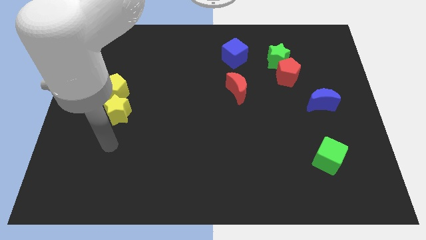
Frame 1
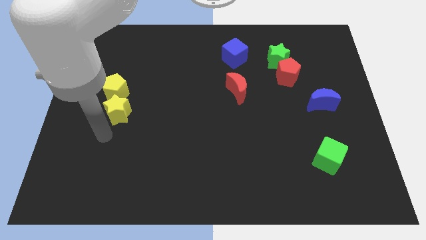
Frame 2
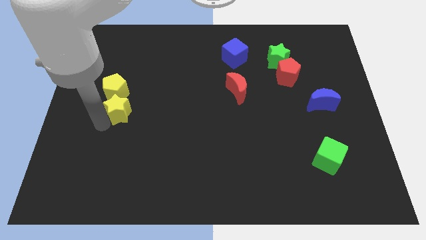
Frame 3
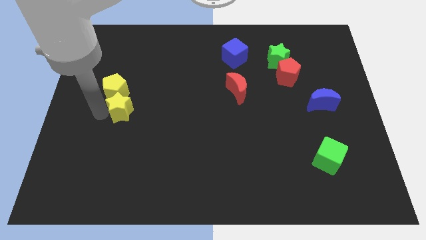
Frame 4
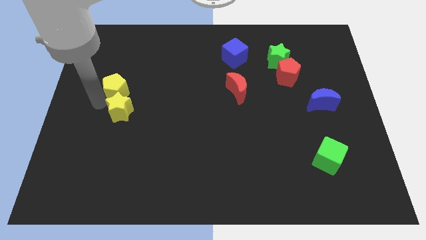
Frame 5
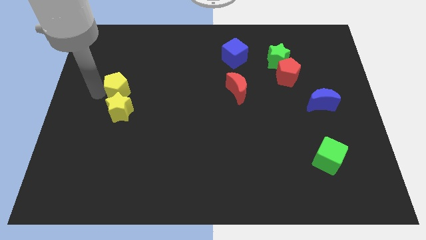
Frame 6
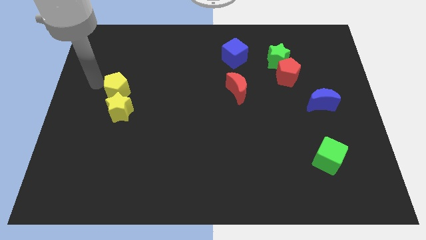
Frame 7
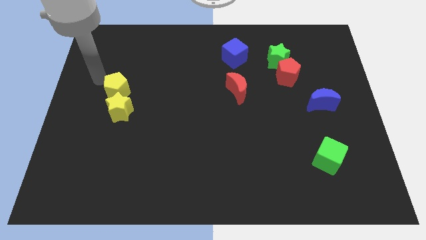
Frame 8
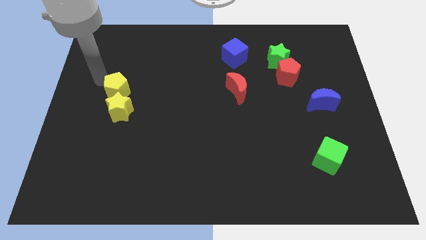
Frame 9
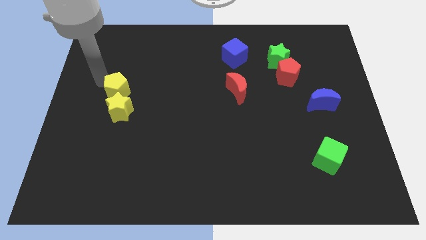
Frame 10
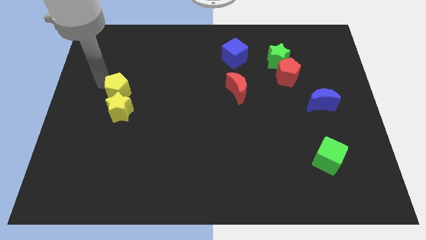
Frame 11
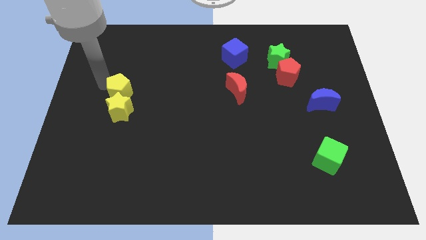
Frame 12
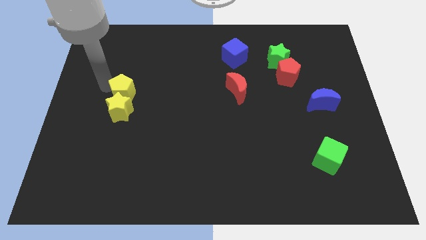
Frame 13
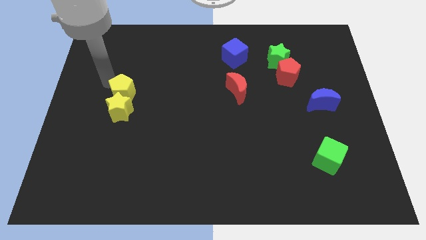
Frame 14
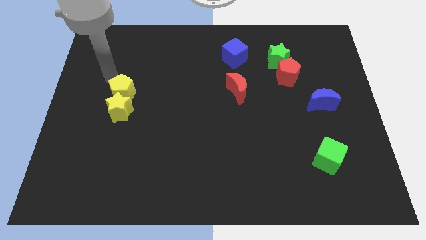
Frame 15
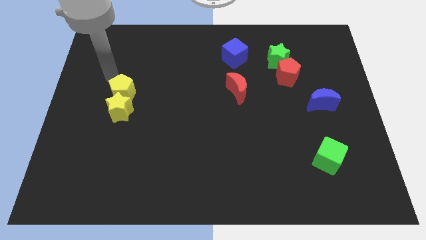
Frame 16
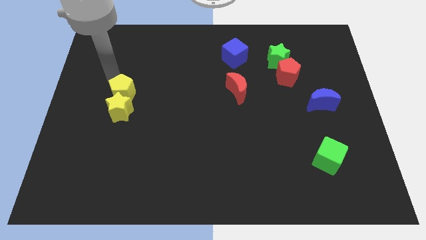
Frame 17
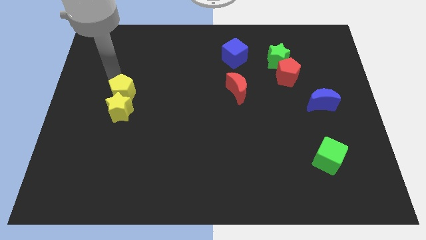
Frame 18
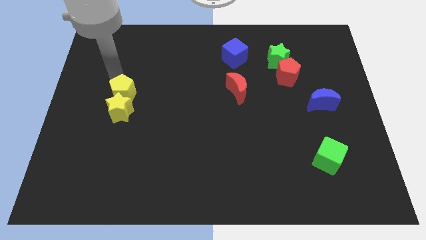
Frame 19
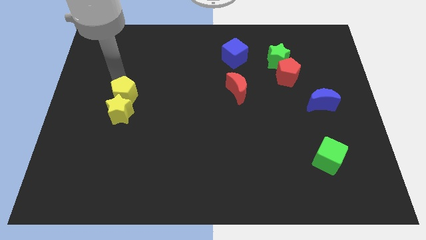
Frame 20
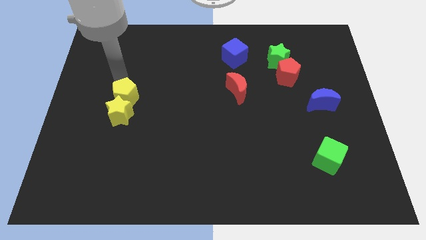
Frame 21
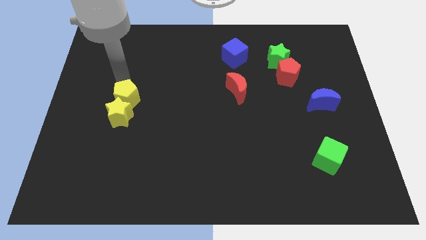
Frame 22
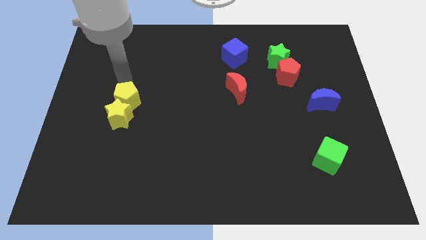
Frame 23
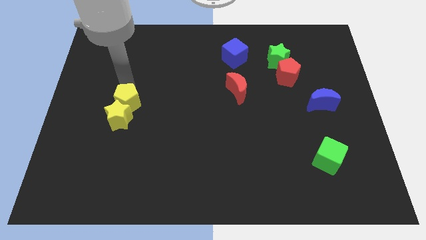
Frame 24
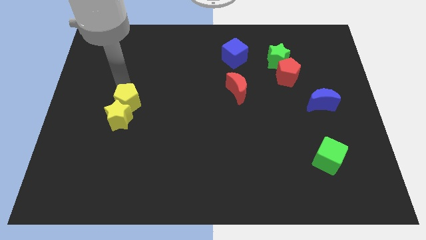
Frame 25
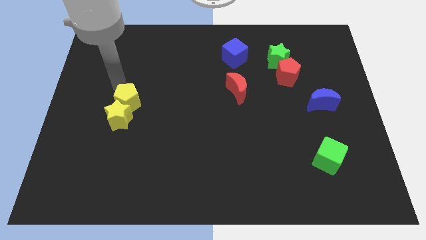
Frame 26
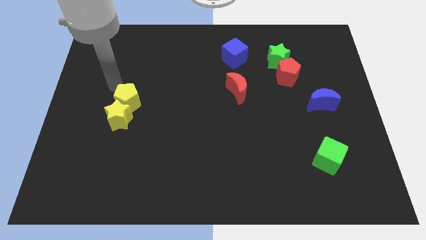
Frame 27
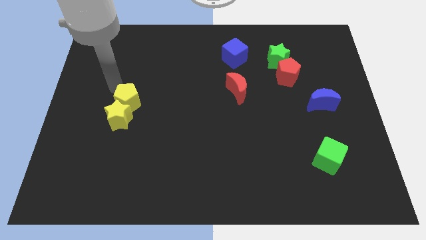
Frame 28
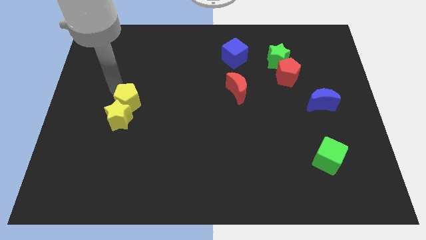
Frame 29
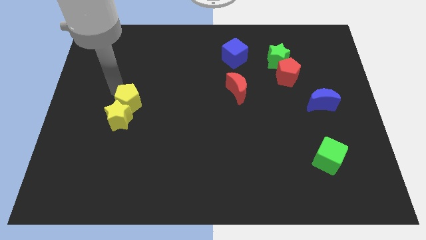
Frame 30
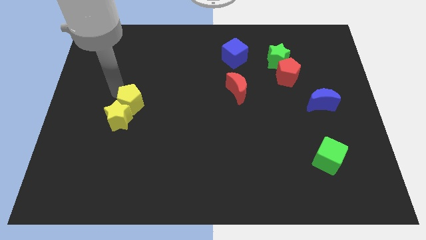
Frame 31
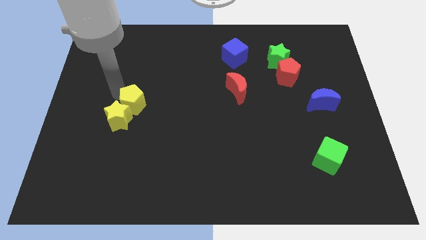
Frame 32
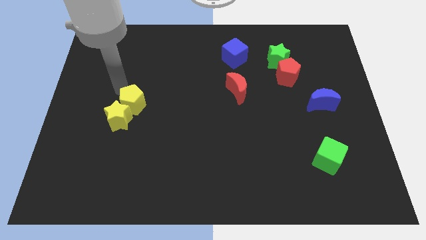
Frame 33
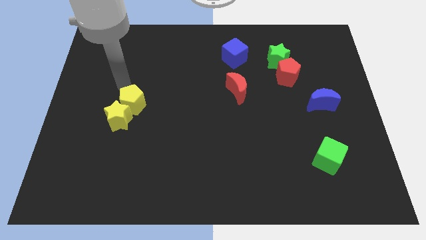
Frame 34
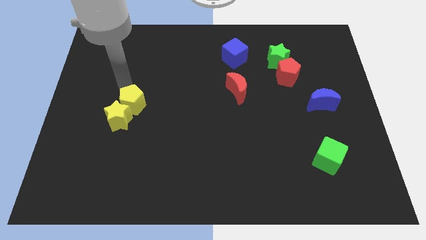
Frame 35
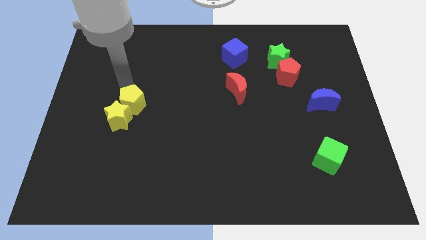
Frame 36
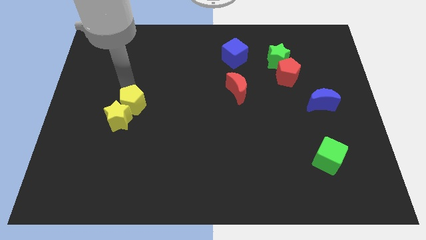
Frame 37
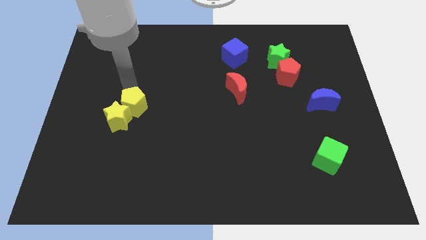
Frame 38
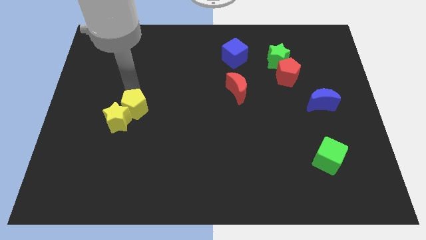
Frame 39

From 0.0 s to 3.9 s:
slightly push the yellow pentagon down and then to the right

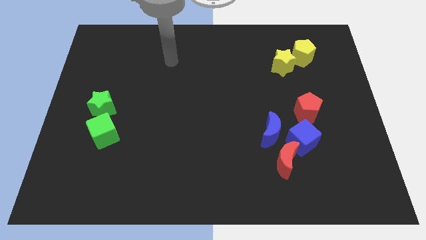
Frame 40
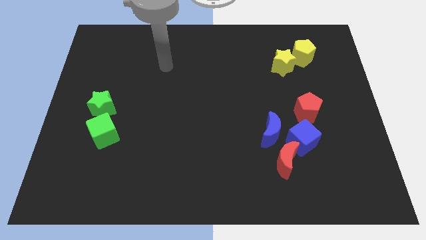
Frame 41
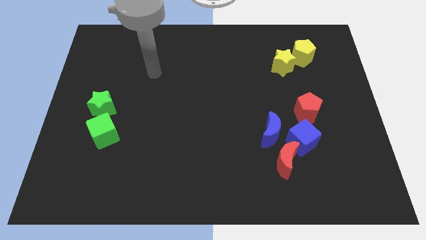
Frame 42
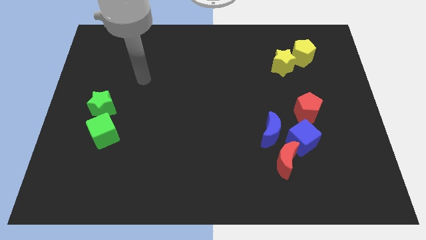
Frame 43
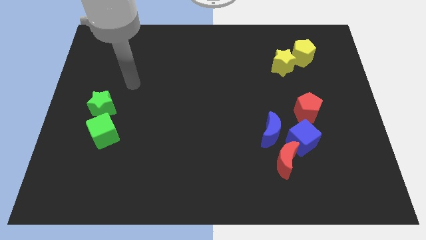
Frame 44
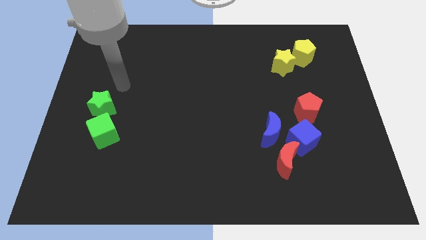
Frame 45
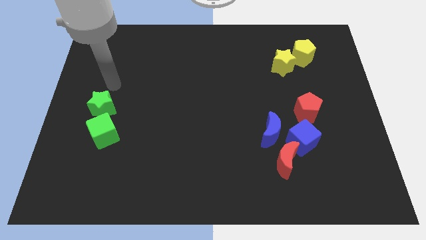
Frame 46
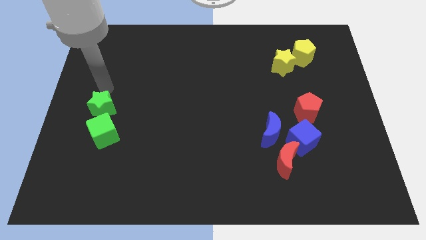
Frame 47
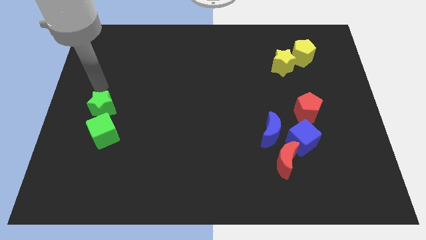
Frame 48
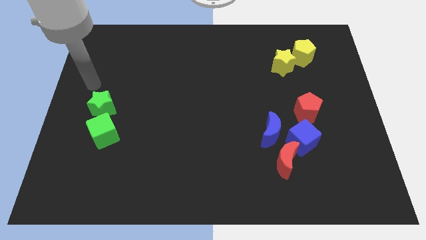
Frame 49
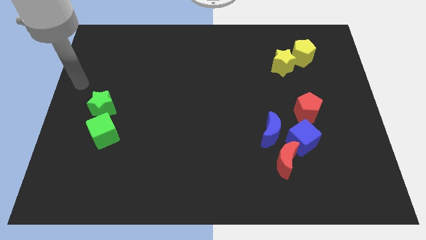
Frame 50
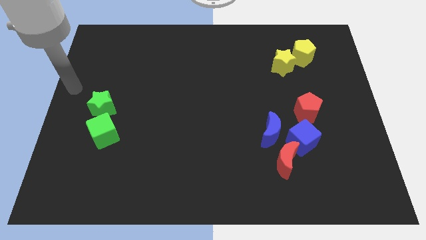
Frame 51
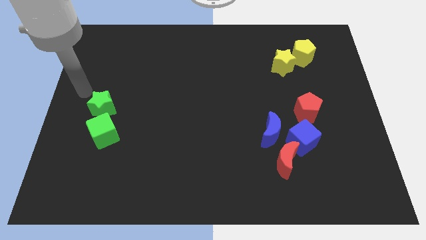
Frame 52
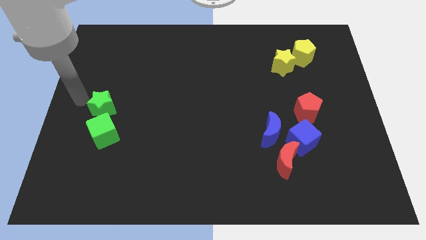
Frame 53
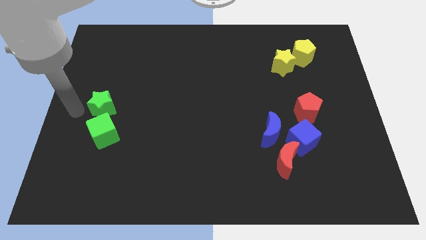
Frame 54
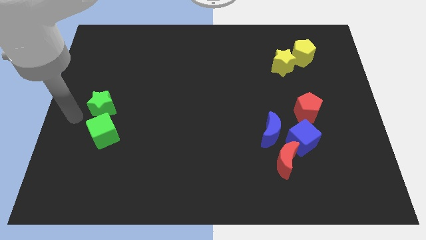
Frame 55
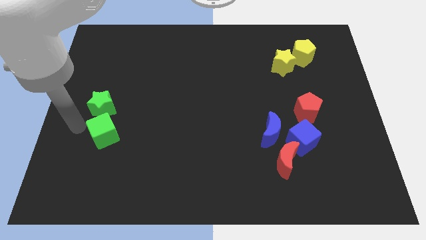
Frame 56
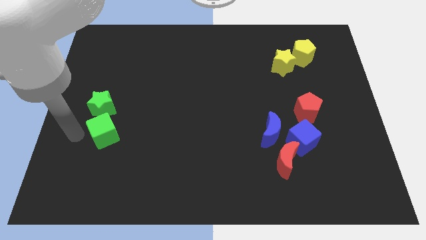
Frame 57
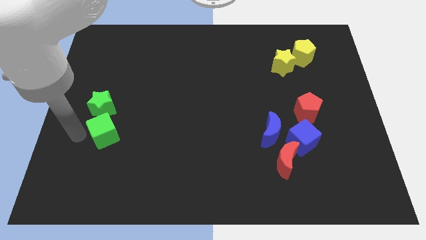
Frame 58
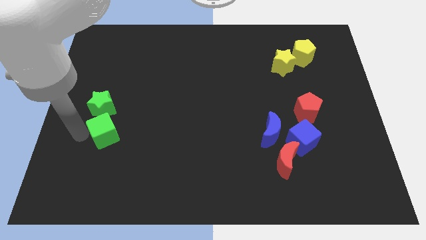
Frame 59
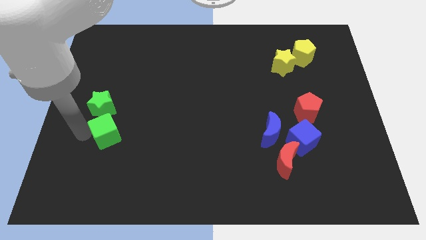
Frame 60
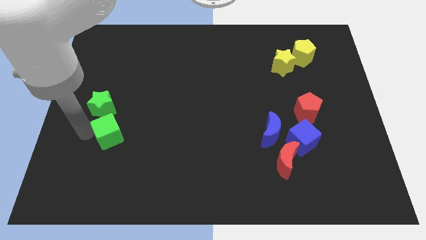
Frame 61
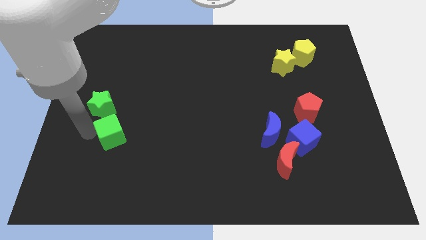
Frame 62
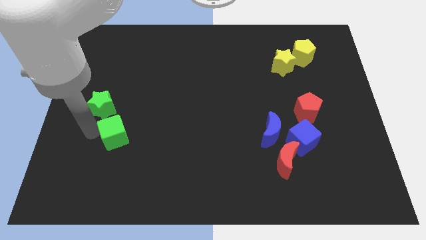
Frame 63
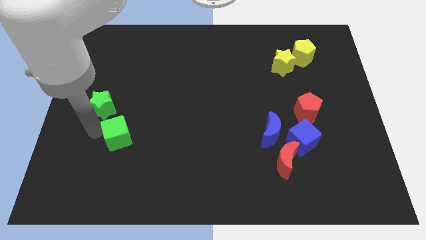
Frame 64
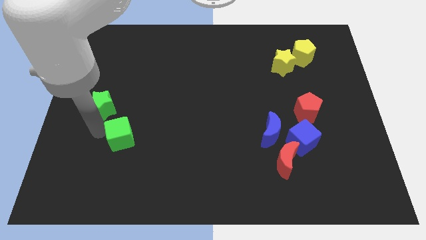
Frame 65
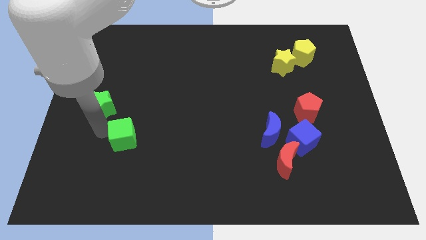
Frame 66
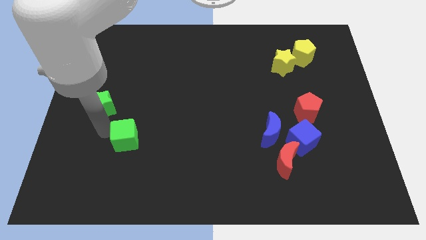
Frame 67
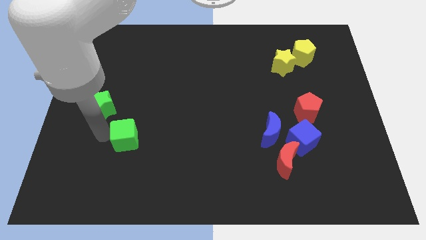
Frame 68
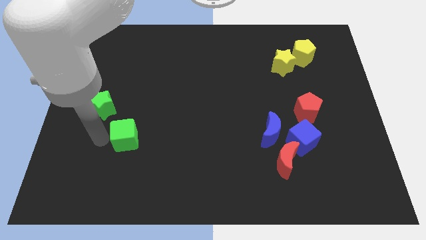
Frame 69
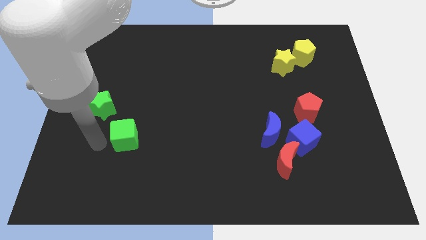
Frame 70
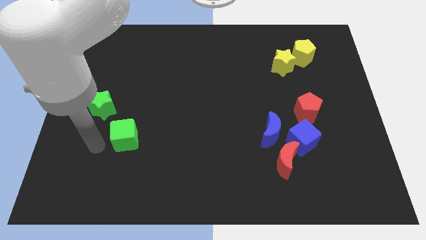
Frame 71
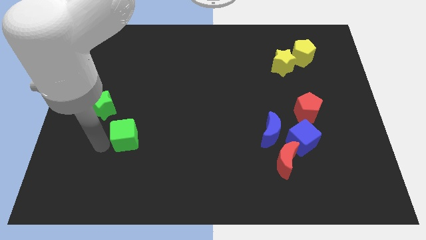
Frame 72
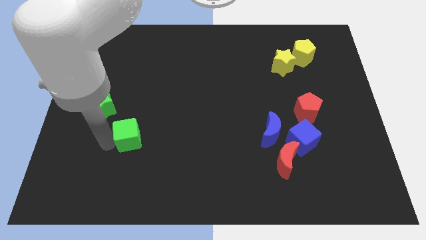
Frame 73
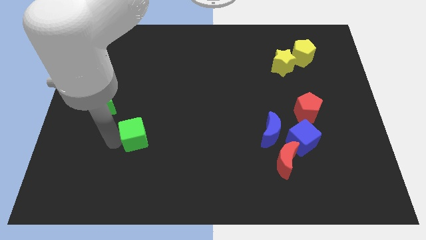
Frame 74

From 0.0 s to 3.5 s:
move the green cube somewhat right

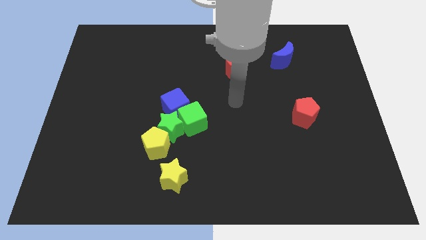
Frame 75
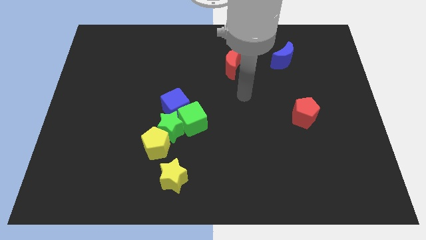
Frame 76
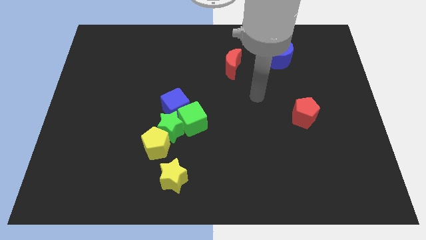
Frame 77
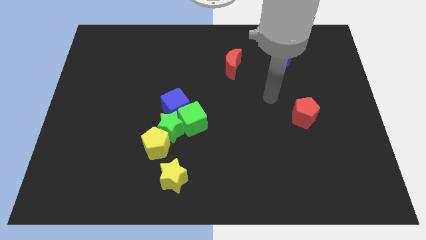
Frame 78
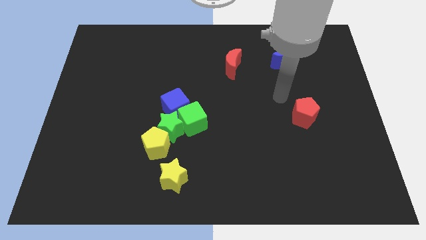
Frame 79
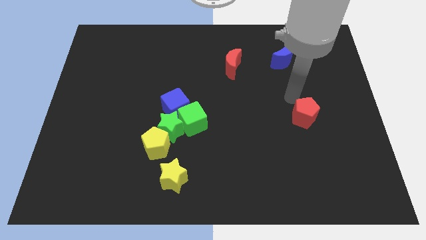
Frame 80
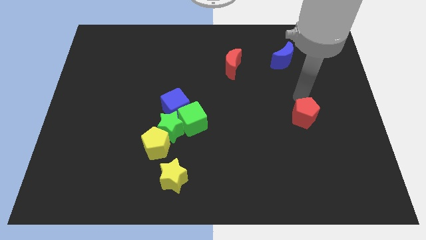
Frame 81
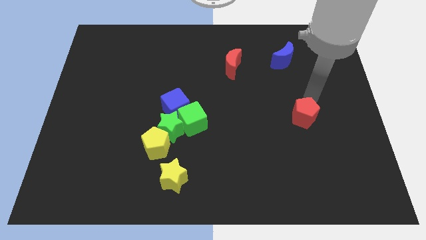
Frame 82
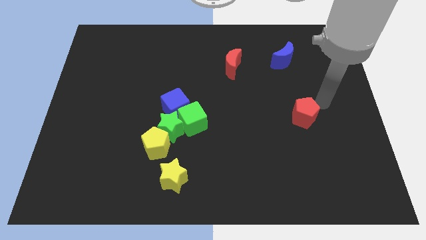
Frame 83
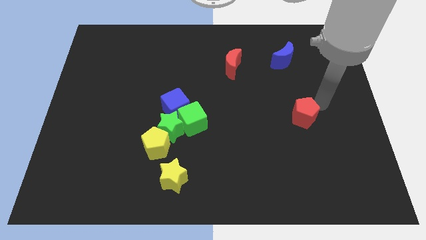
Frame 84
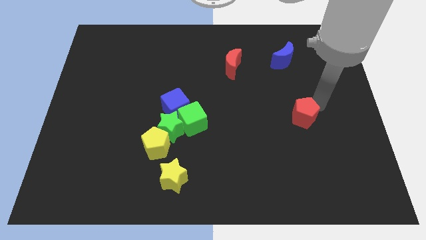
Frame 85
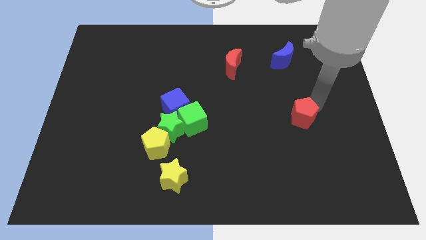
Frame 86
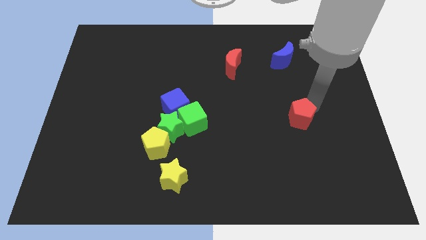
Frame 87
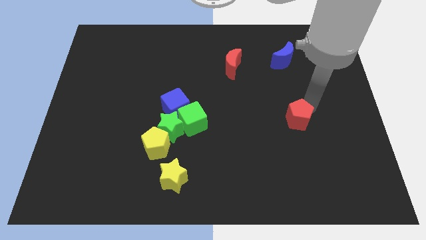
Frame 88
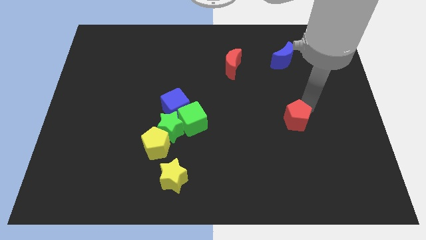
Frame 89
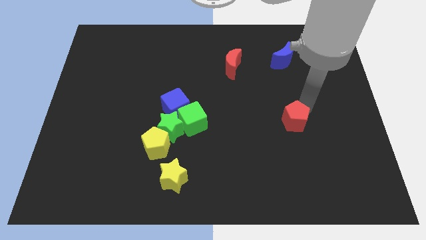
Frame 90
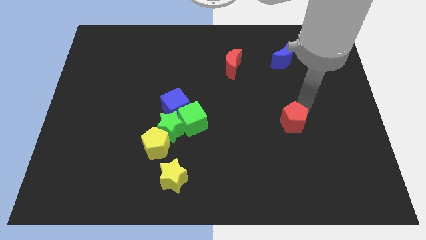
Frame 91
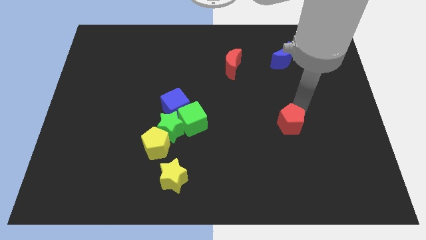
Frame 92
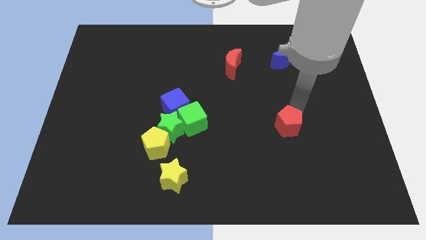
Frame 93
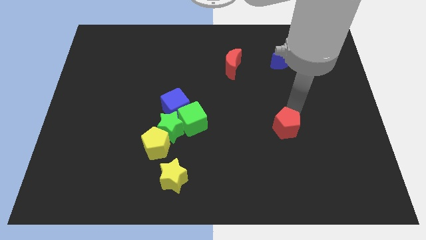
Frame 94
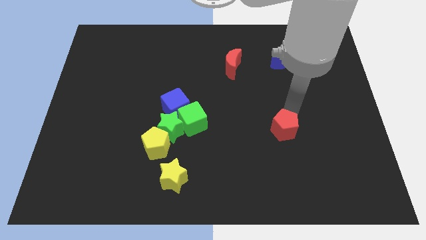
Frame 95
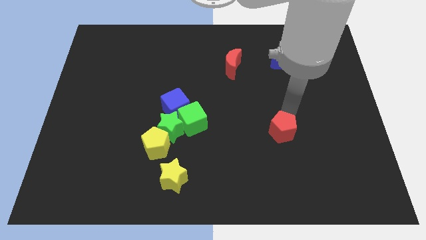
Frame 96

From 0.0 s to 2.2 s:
slightly push the red pentagon down and left
